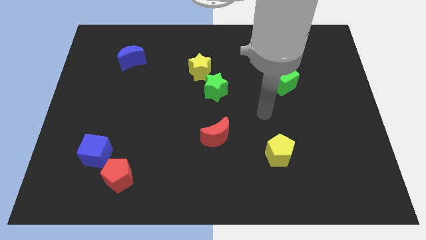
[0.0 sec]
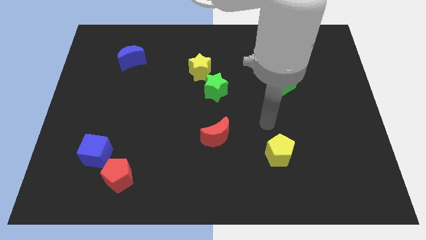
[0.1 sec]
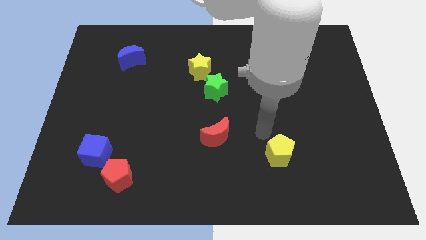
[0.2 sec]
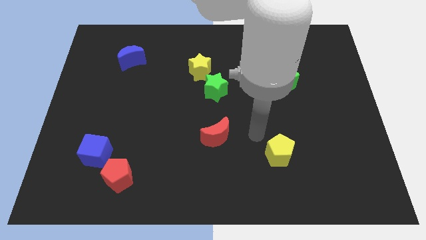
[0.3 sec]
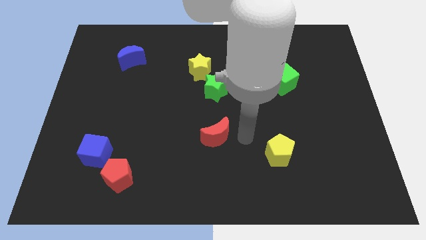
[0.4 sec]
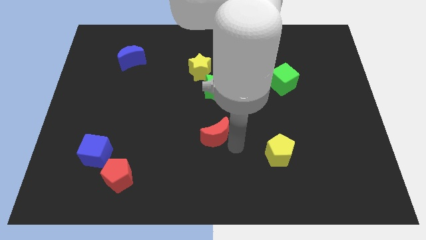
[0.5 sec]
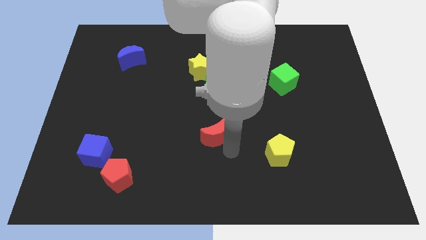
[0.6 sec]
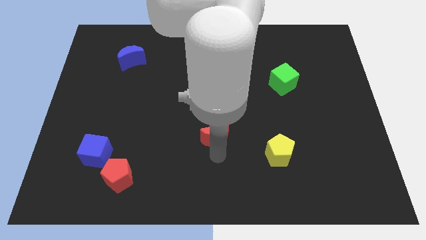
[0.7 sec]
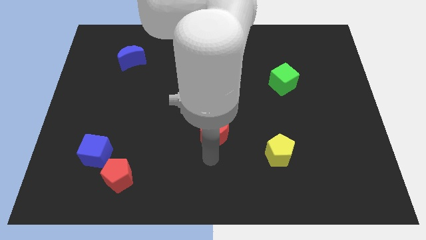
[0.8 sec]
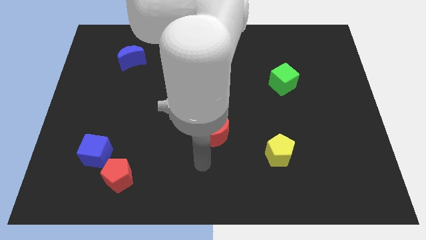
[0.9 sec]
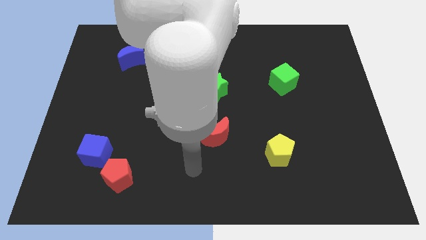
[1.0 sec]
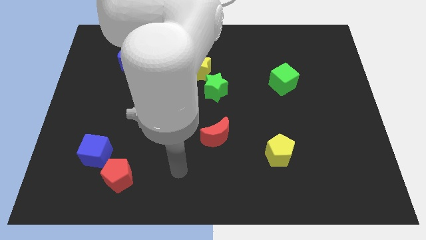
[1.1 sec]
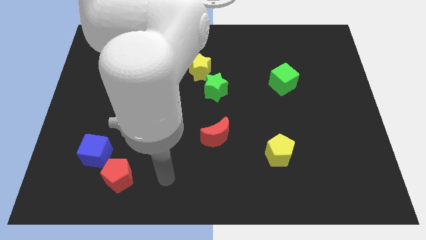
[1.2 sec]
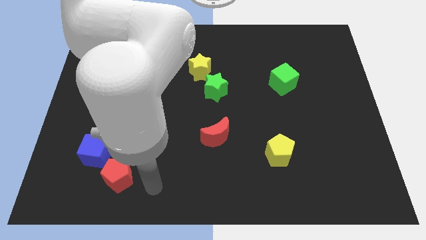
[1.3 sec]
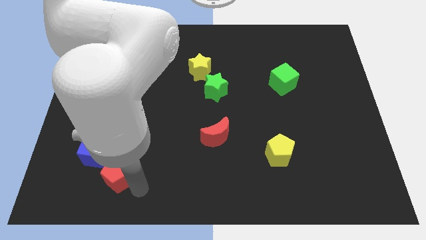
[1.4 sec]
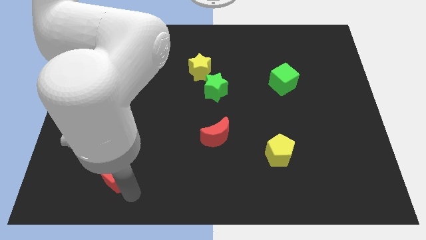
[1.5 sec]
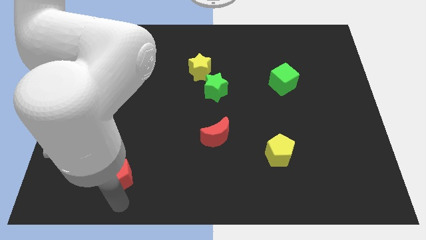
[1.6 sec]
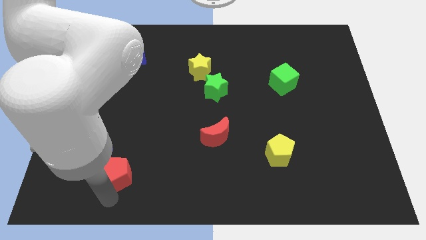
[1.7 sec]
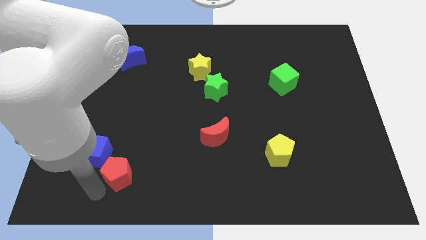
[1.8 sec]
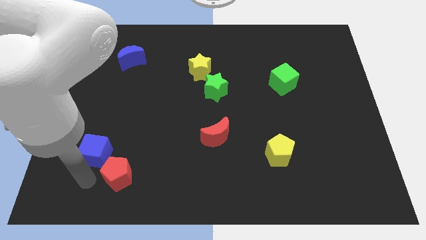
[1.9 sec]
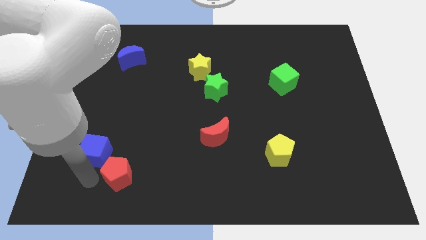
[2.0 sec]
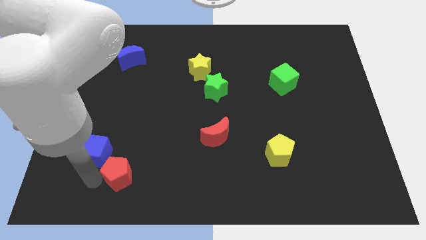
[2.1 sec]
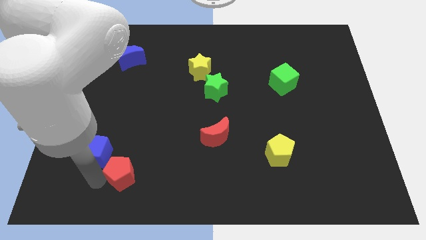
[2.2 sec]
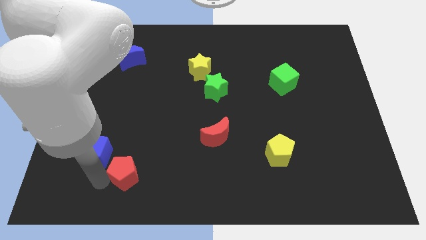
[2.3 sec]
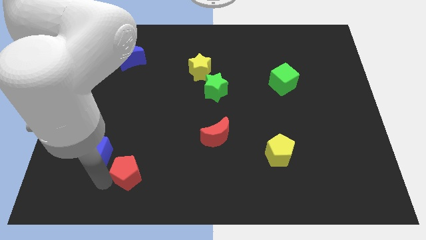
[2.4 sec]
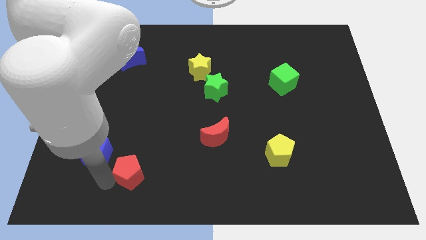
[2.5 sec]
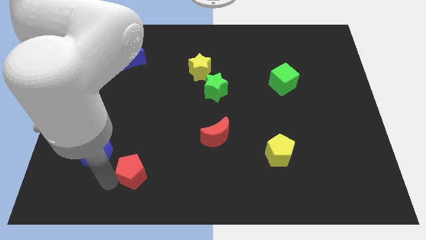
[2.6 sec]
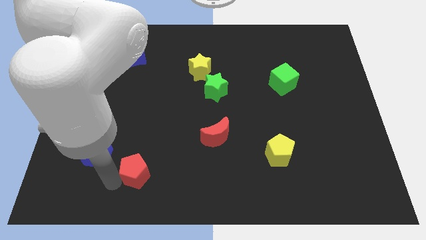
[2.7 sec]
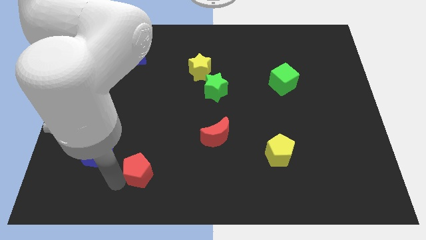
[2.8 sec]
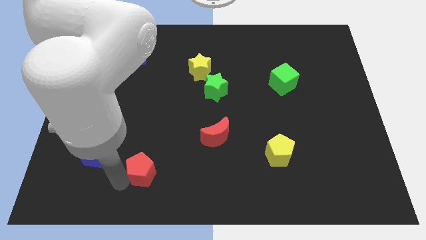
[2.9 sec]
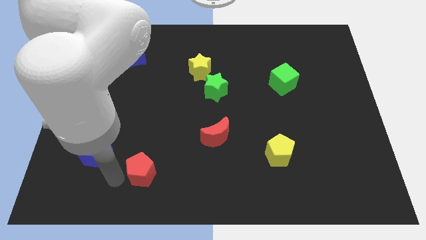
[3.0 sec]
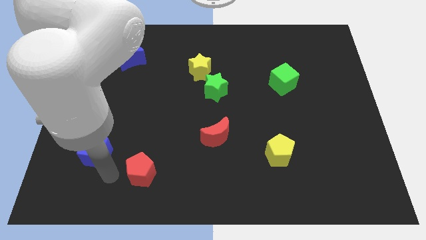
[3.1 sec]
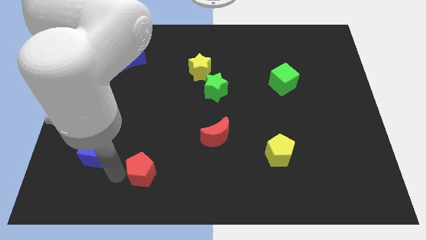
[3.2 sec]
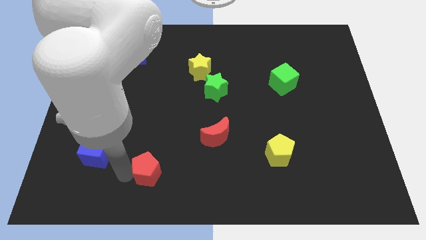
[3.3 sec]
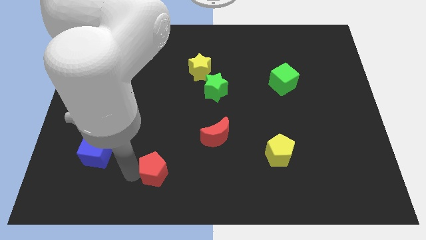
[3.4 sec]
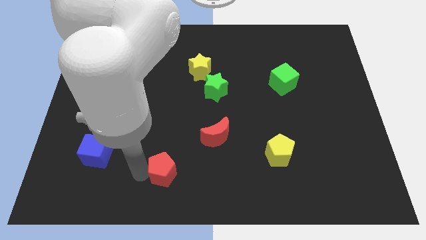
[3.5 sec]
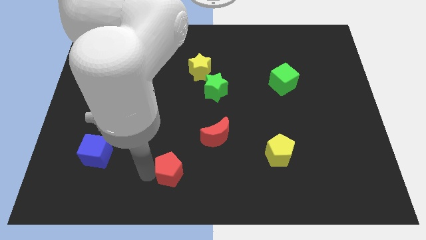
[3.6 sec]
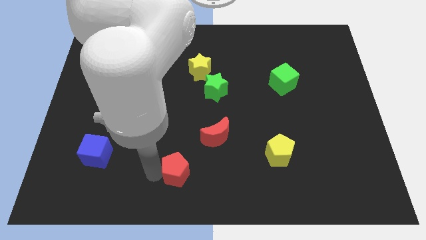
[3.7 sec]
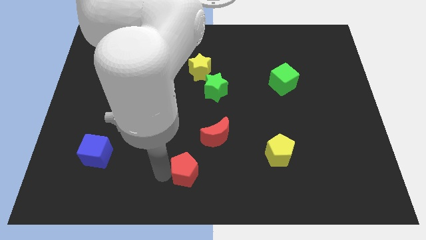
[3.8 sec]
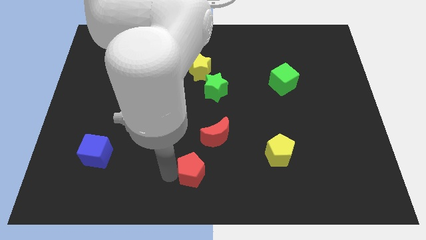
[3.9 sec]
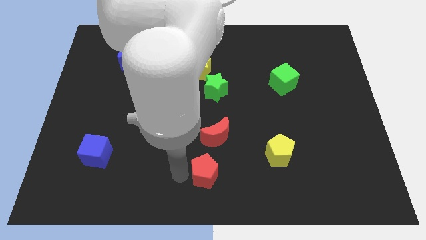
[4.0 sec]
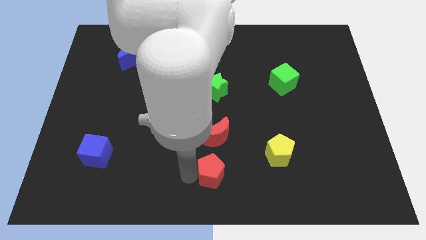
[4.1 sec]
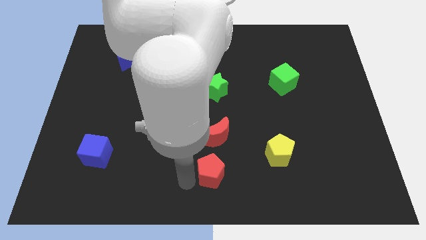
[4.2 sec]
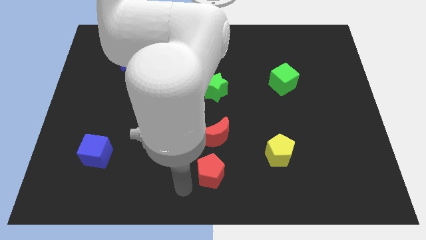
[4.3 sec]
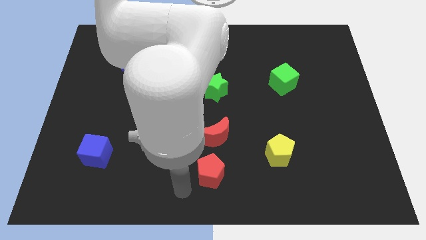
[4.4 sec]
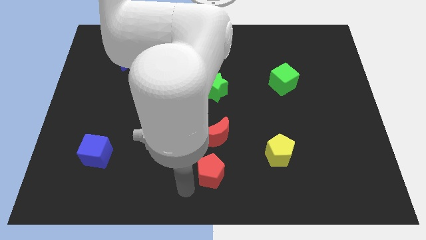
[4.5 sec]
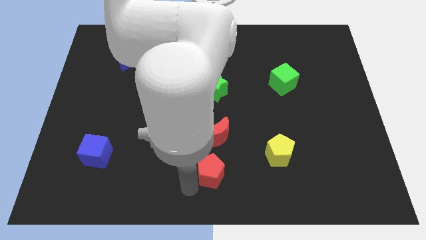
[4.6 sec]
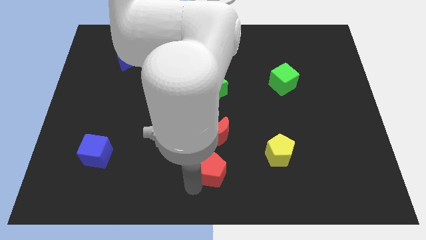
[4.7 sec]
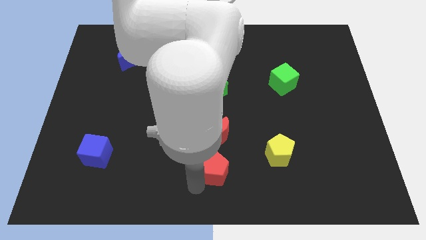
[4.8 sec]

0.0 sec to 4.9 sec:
push the red pentagon to the right

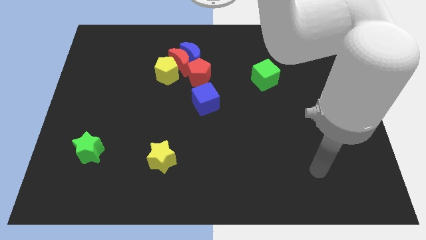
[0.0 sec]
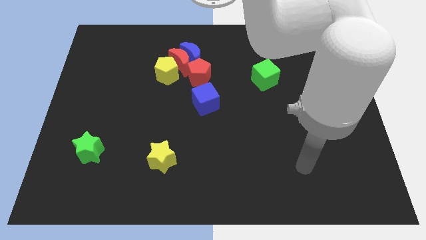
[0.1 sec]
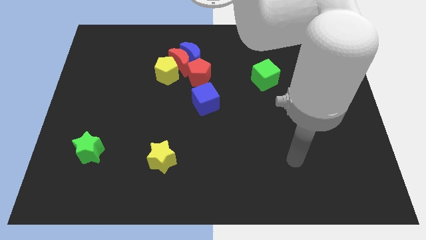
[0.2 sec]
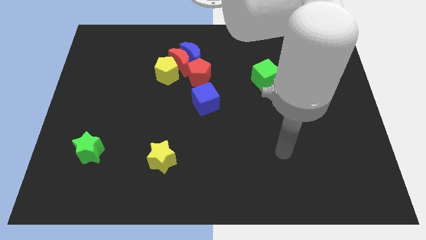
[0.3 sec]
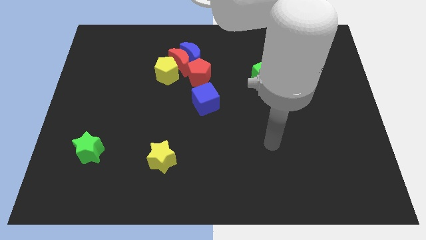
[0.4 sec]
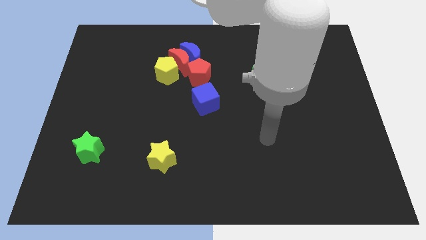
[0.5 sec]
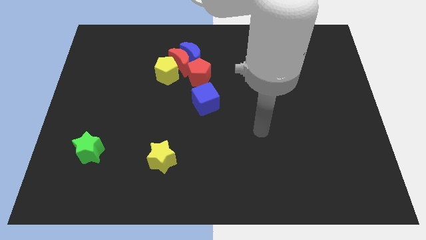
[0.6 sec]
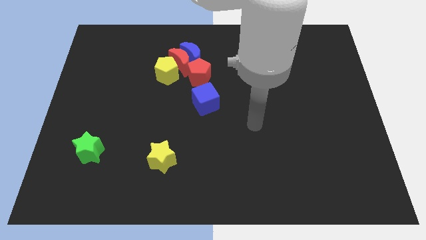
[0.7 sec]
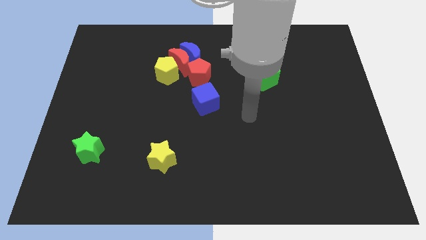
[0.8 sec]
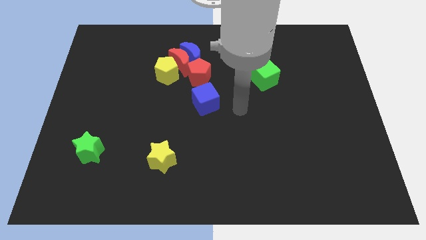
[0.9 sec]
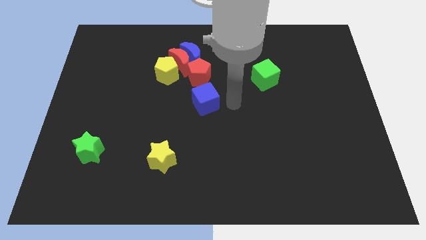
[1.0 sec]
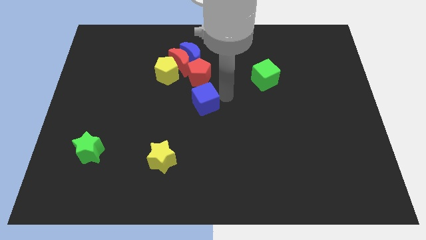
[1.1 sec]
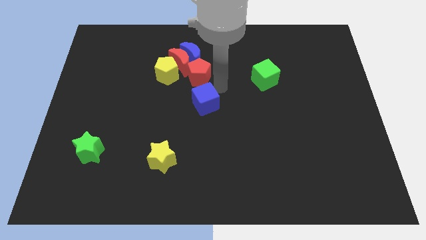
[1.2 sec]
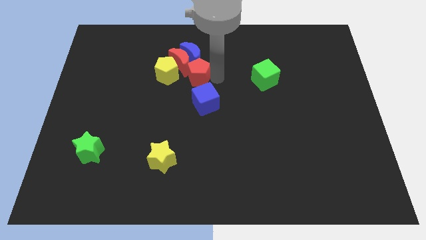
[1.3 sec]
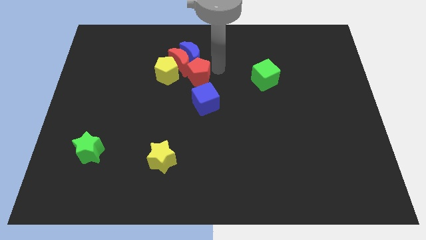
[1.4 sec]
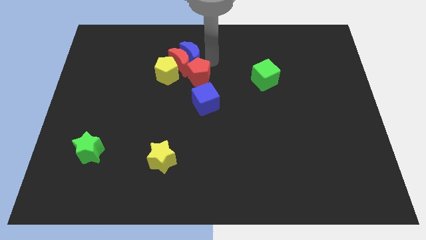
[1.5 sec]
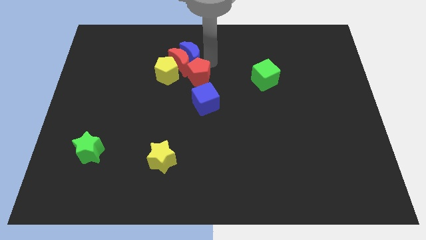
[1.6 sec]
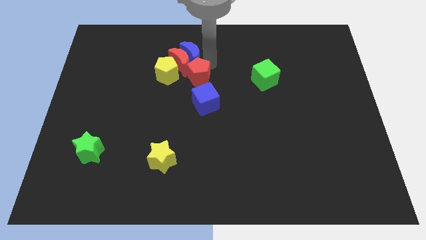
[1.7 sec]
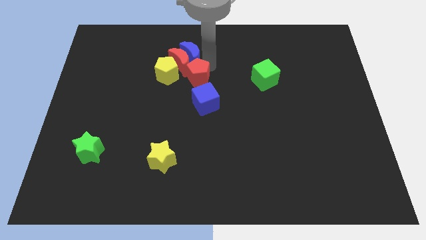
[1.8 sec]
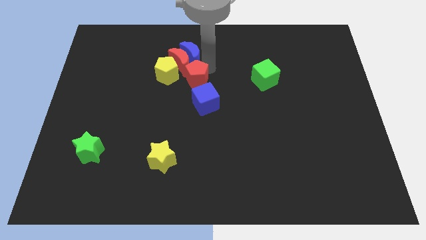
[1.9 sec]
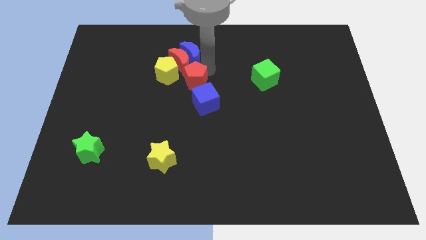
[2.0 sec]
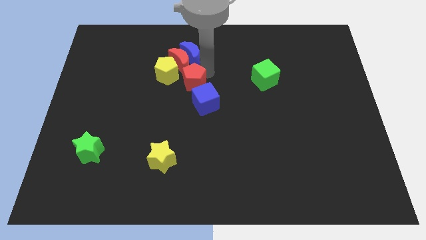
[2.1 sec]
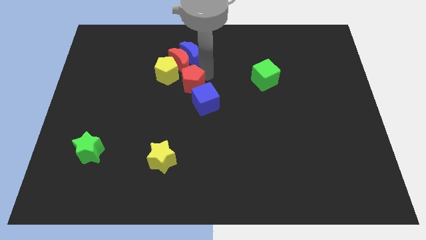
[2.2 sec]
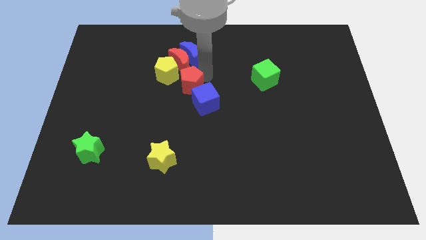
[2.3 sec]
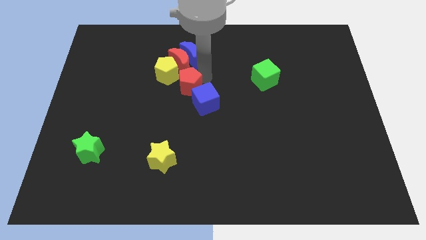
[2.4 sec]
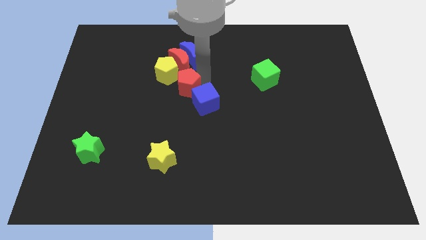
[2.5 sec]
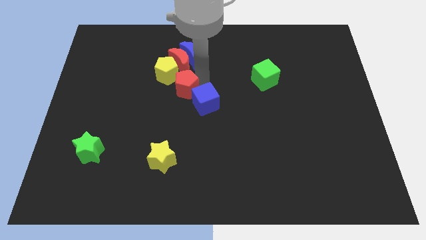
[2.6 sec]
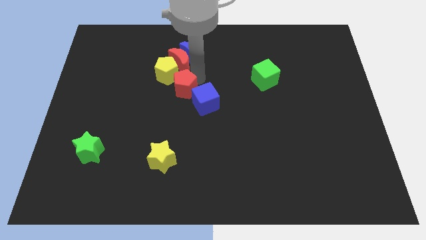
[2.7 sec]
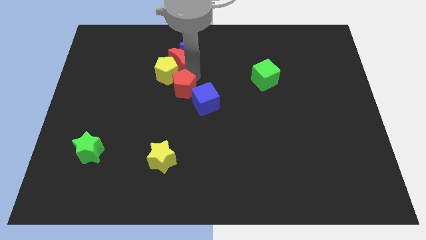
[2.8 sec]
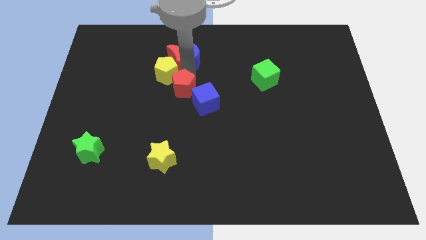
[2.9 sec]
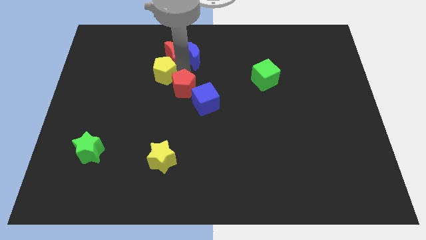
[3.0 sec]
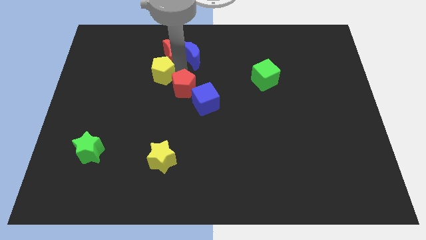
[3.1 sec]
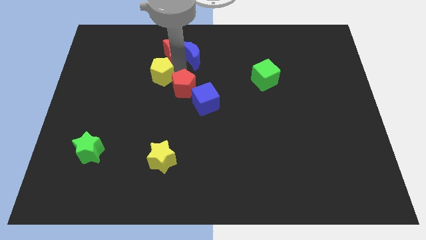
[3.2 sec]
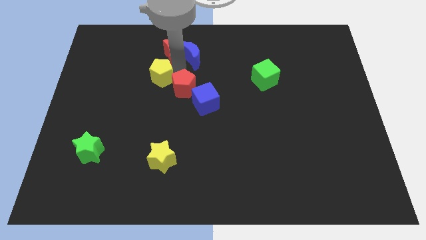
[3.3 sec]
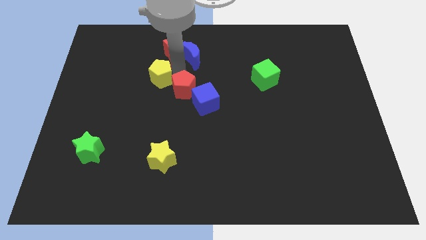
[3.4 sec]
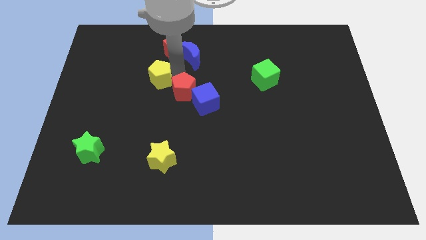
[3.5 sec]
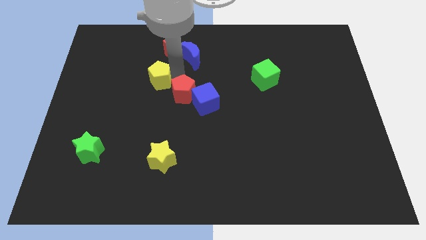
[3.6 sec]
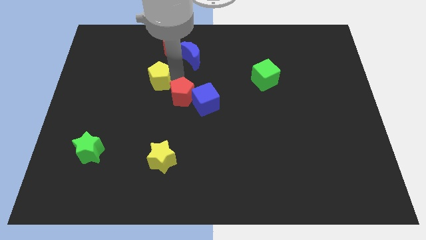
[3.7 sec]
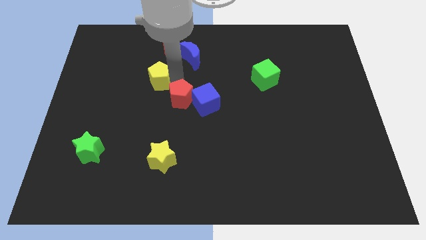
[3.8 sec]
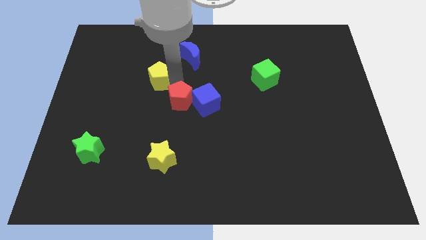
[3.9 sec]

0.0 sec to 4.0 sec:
move the red pentagon down a little bit
